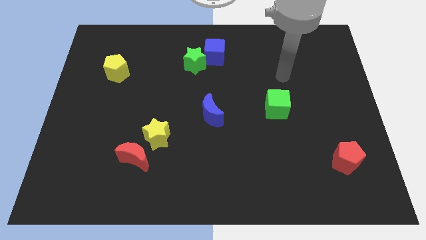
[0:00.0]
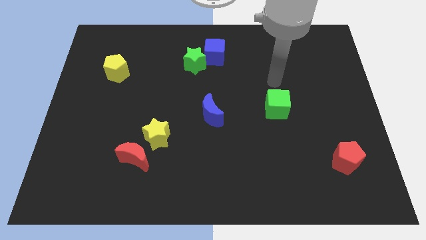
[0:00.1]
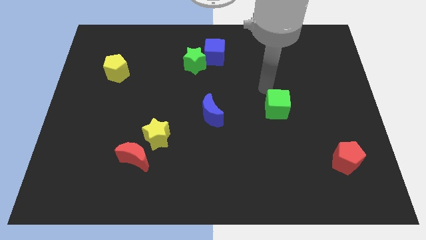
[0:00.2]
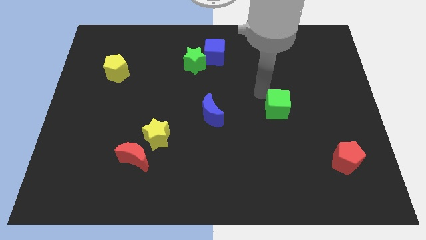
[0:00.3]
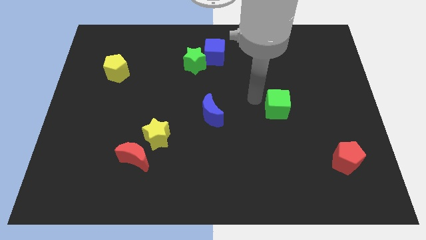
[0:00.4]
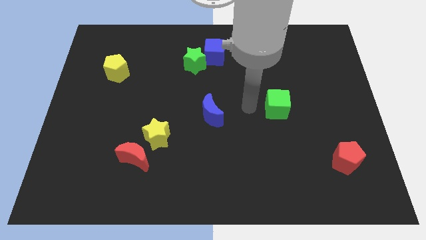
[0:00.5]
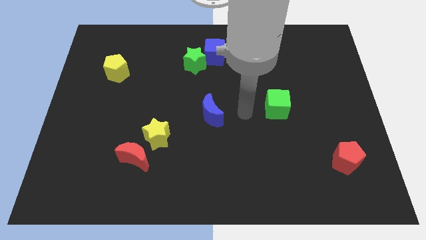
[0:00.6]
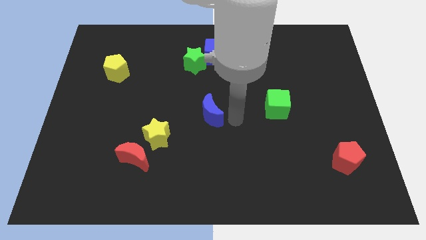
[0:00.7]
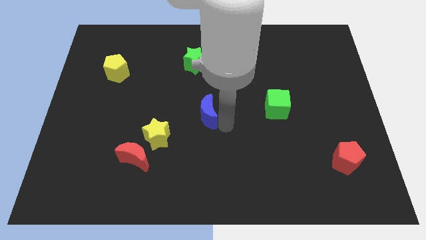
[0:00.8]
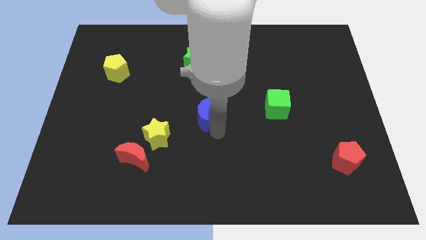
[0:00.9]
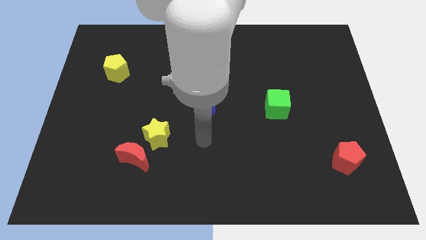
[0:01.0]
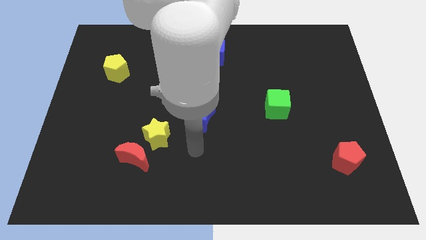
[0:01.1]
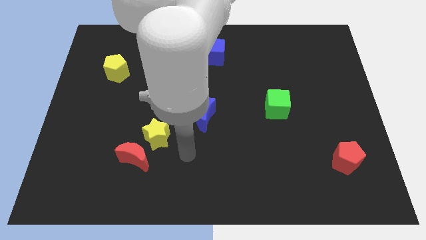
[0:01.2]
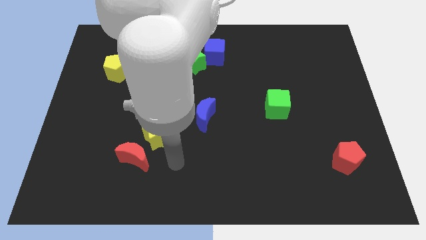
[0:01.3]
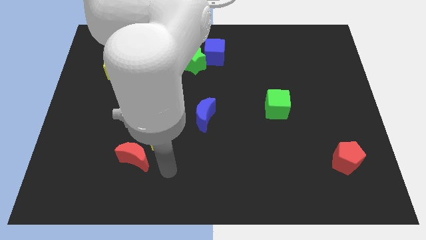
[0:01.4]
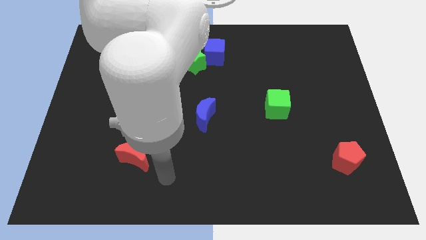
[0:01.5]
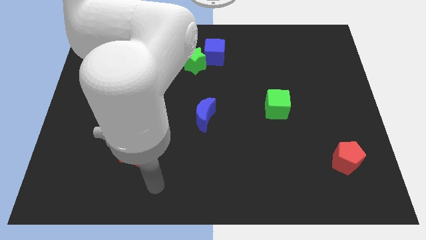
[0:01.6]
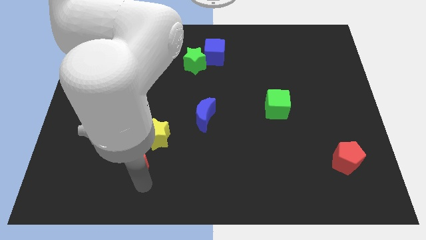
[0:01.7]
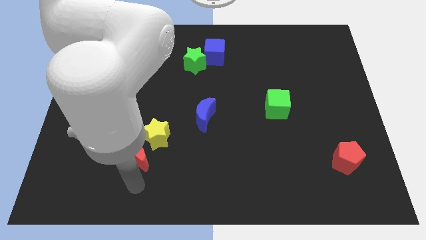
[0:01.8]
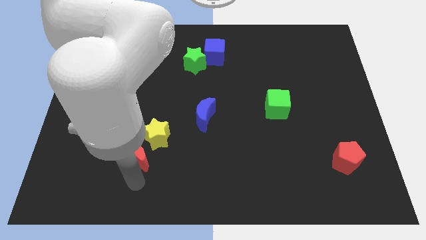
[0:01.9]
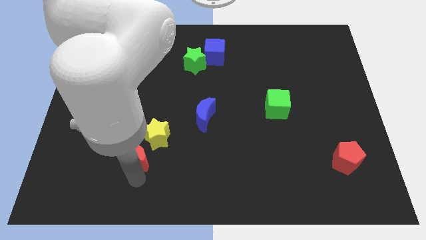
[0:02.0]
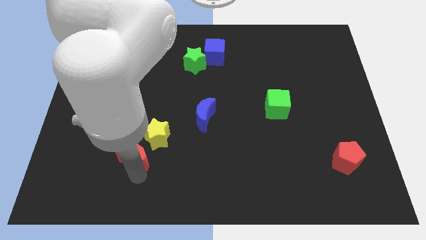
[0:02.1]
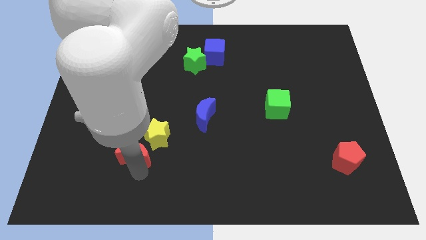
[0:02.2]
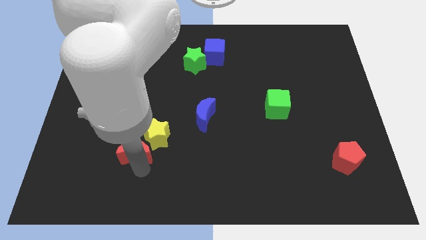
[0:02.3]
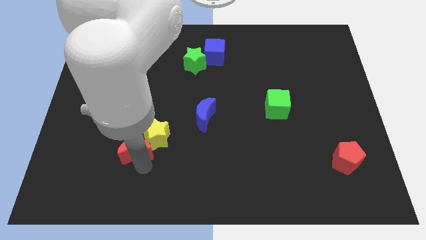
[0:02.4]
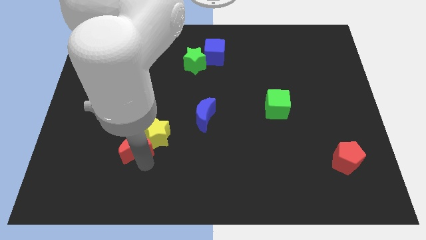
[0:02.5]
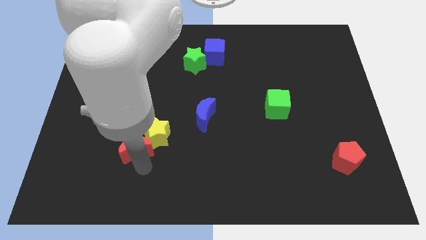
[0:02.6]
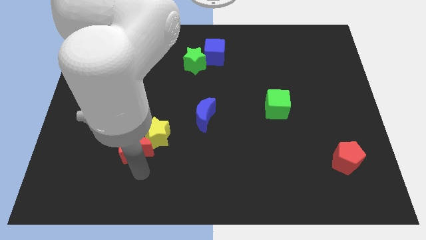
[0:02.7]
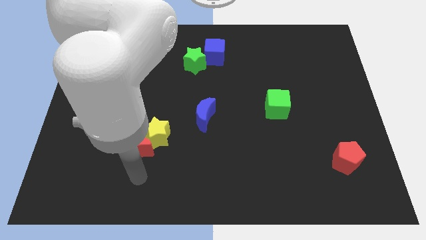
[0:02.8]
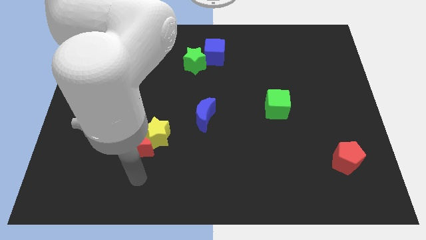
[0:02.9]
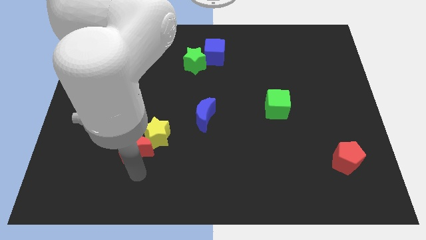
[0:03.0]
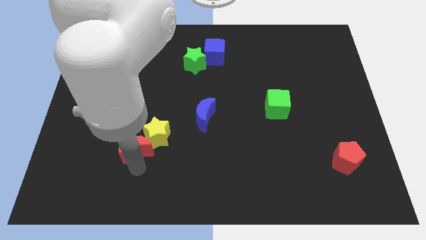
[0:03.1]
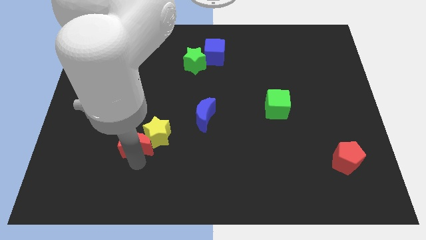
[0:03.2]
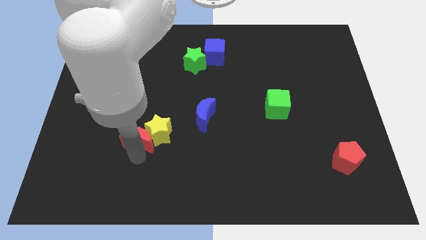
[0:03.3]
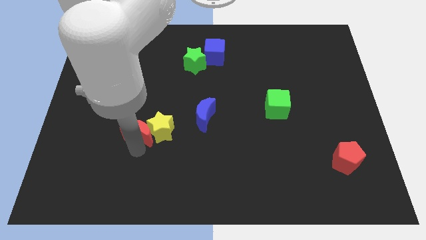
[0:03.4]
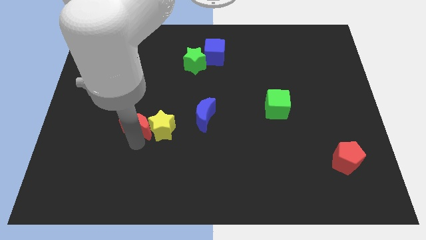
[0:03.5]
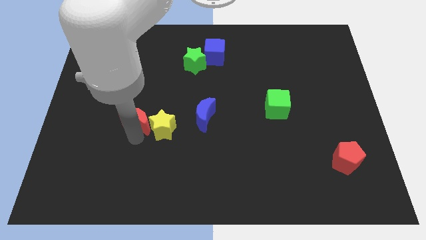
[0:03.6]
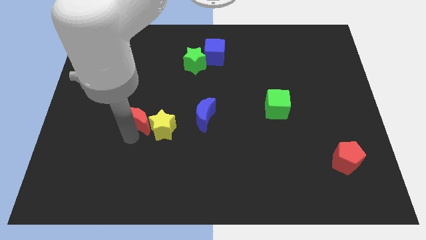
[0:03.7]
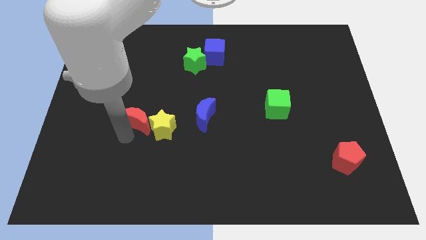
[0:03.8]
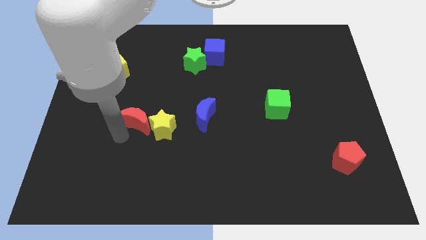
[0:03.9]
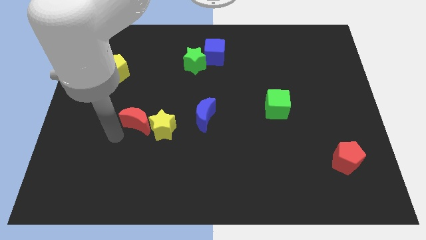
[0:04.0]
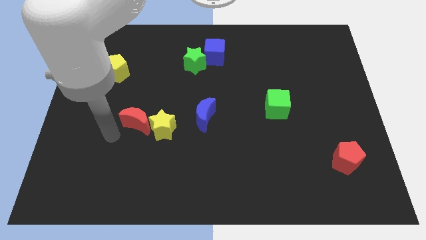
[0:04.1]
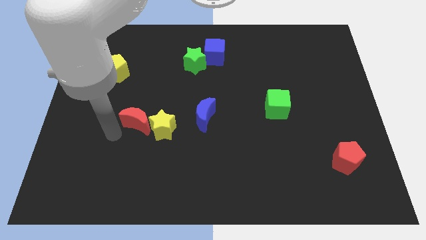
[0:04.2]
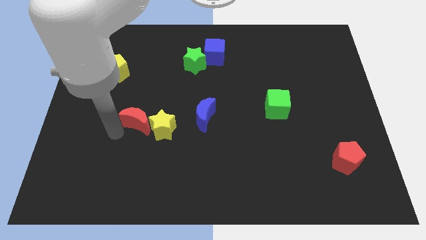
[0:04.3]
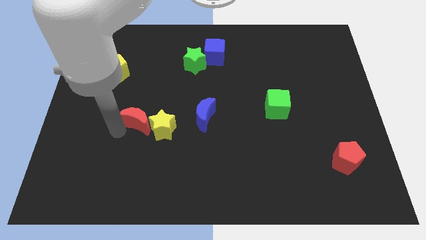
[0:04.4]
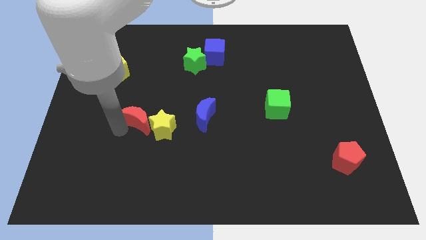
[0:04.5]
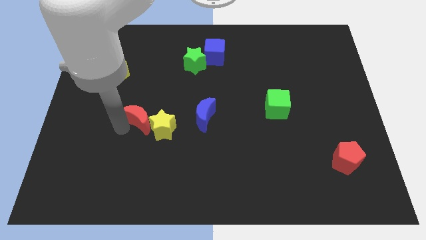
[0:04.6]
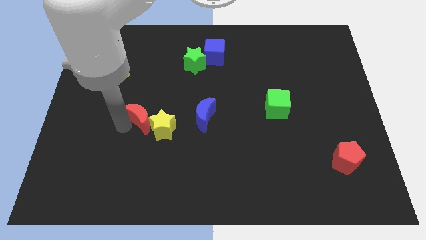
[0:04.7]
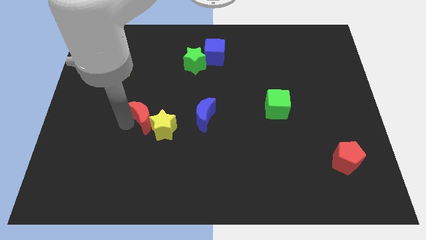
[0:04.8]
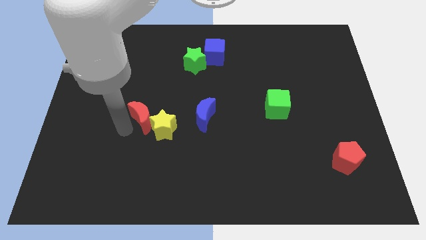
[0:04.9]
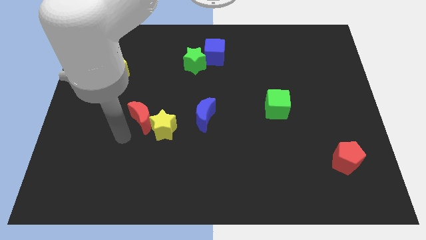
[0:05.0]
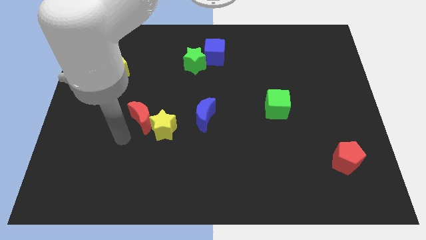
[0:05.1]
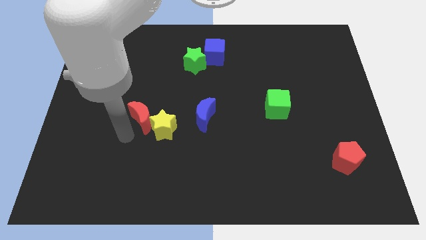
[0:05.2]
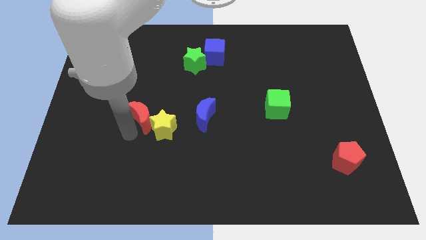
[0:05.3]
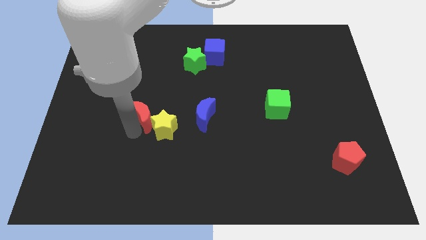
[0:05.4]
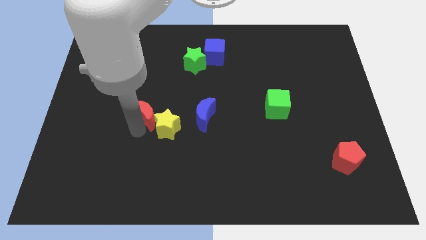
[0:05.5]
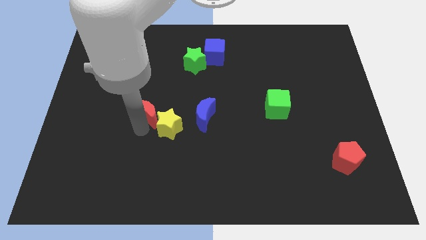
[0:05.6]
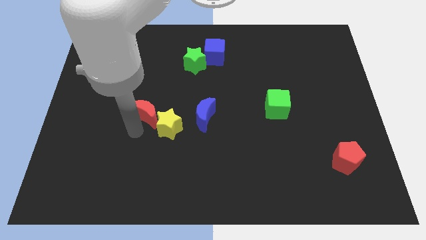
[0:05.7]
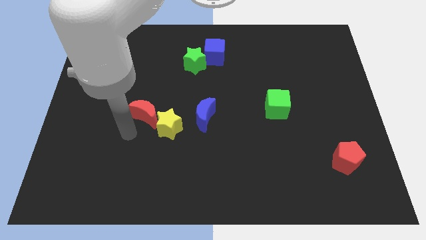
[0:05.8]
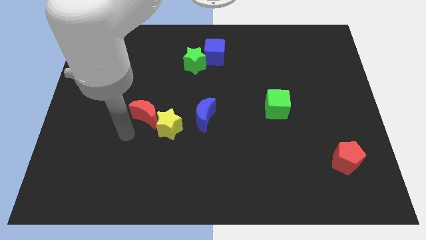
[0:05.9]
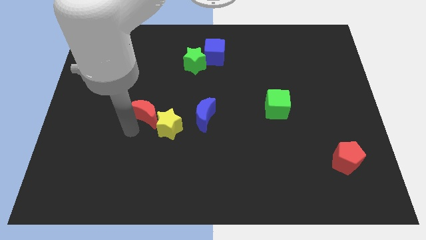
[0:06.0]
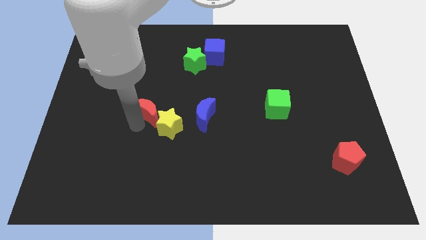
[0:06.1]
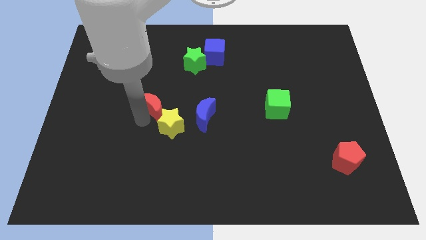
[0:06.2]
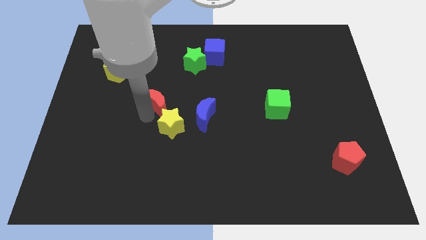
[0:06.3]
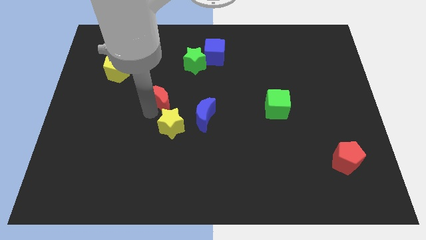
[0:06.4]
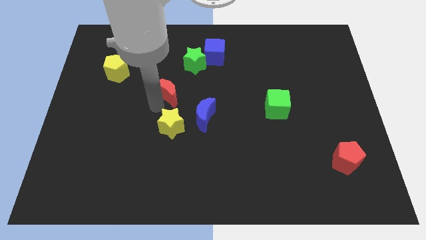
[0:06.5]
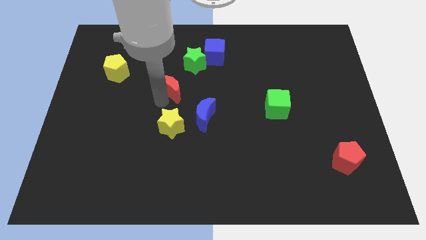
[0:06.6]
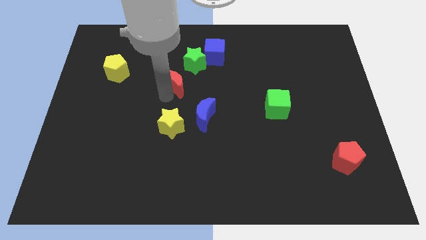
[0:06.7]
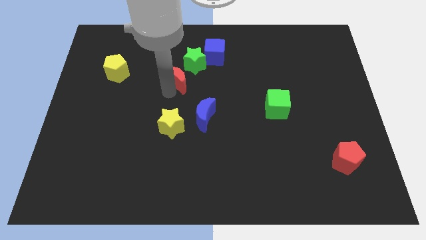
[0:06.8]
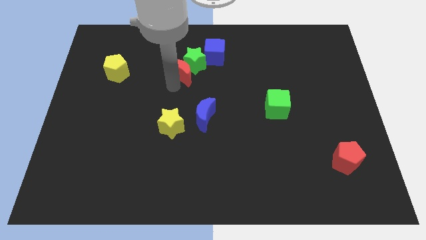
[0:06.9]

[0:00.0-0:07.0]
push the red moon close to the green star

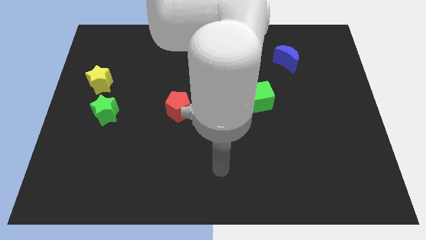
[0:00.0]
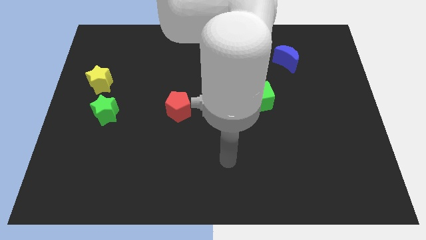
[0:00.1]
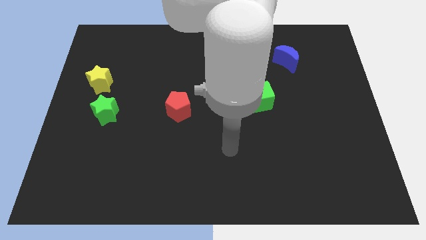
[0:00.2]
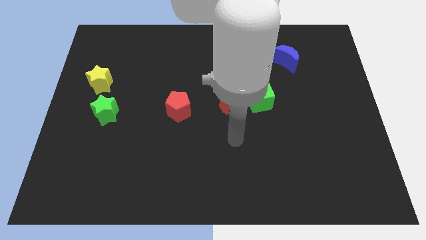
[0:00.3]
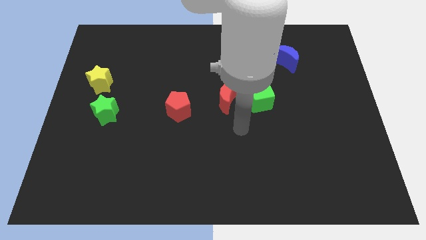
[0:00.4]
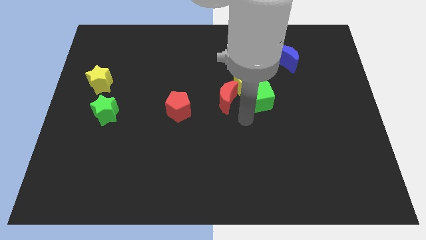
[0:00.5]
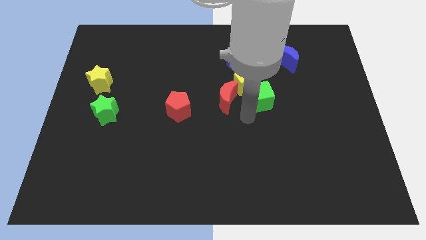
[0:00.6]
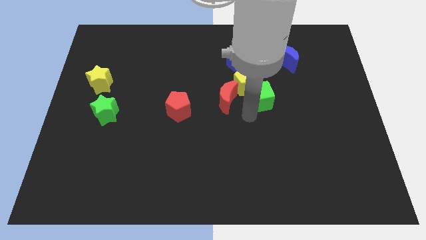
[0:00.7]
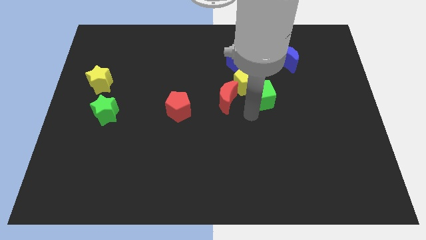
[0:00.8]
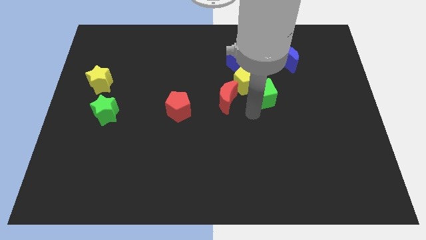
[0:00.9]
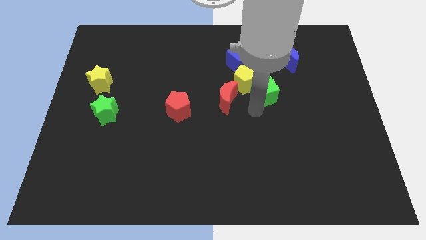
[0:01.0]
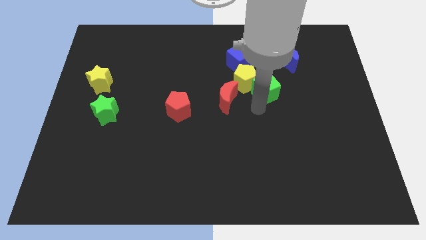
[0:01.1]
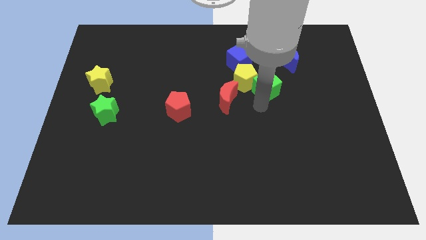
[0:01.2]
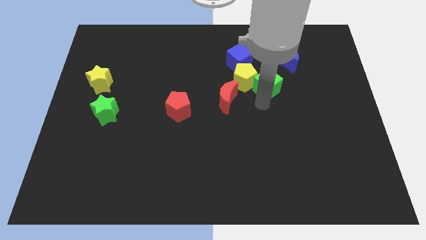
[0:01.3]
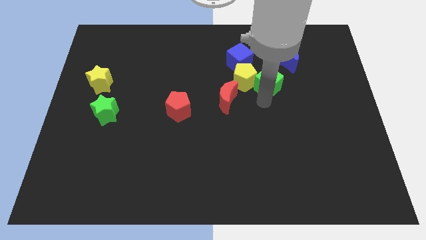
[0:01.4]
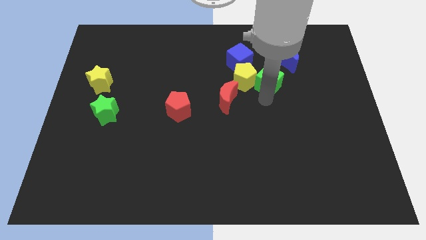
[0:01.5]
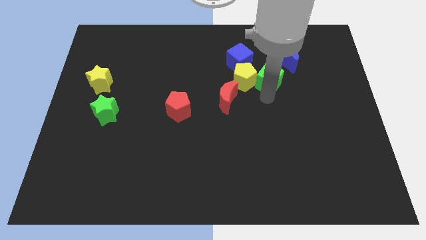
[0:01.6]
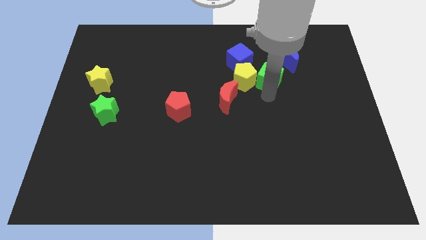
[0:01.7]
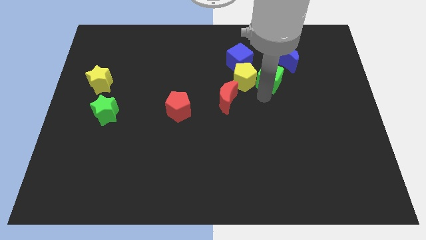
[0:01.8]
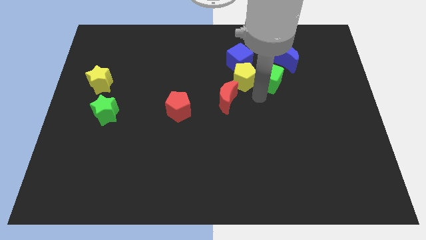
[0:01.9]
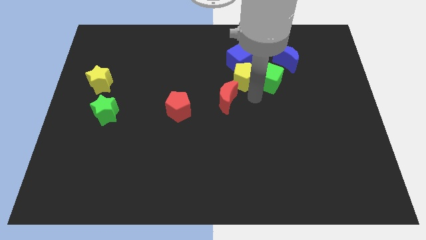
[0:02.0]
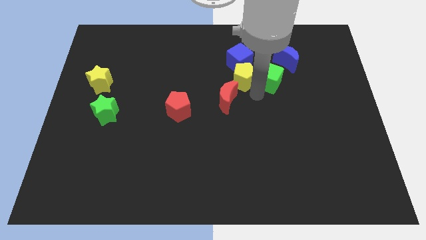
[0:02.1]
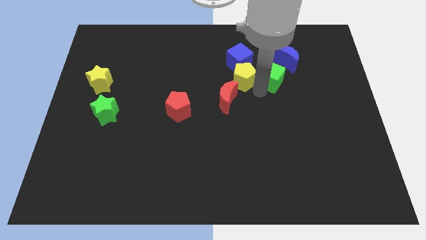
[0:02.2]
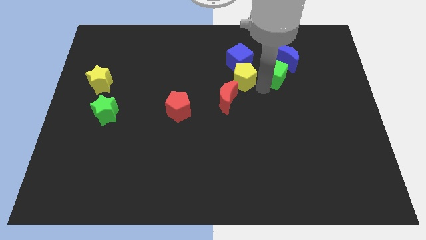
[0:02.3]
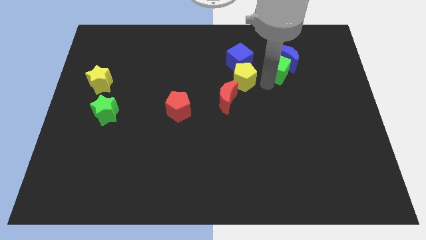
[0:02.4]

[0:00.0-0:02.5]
slide the green cube close to the blue moon
